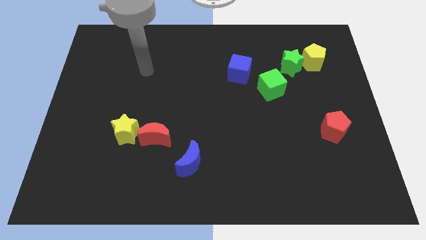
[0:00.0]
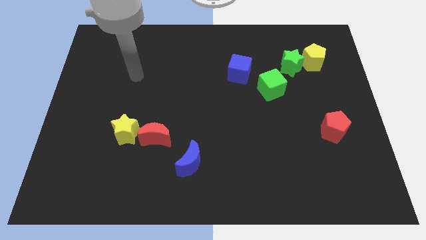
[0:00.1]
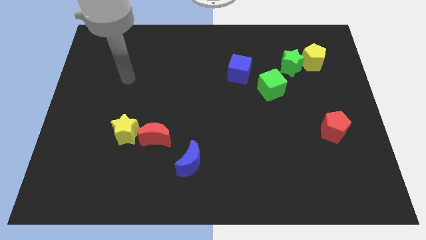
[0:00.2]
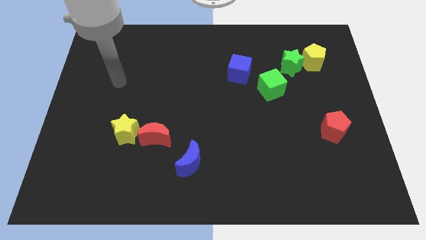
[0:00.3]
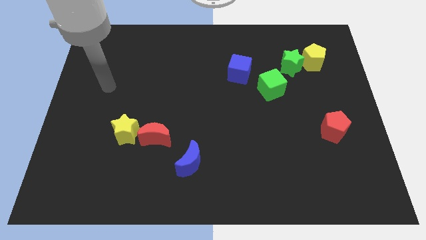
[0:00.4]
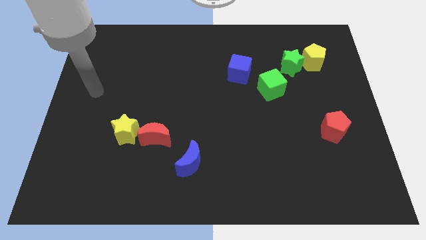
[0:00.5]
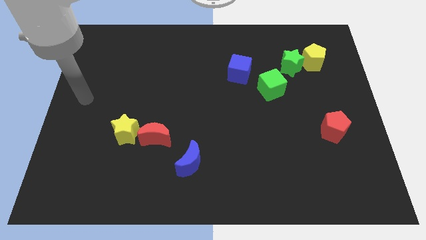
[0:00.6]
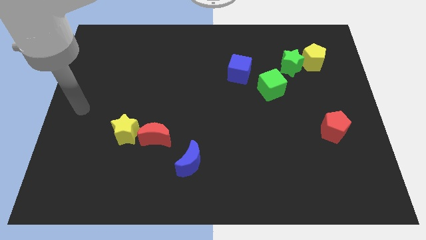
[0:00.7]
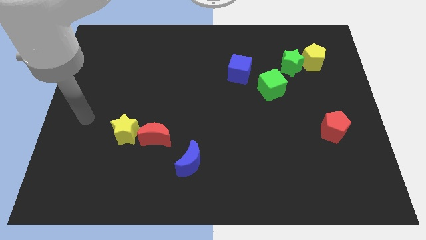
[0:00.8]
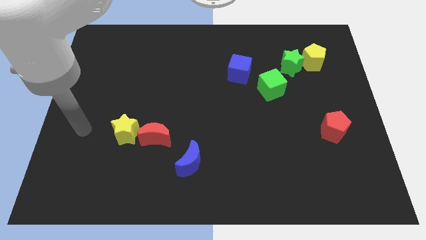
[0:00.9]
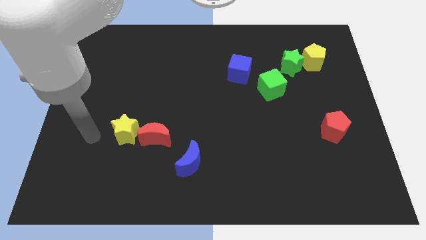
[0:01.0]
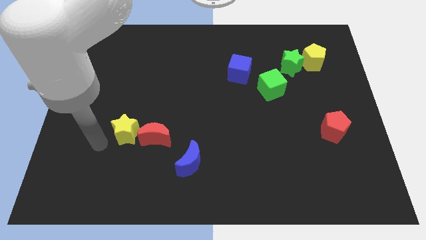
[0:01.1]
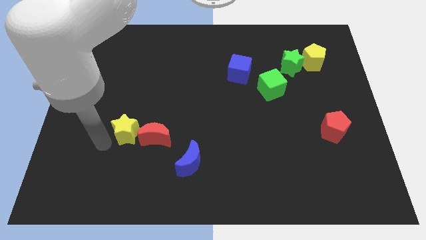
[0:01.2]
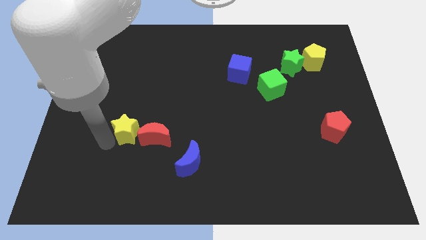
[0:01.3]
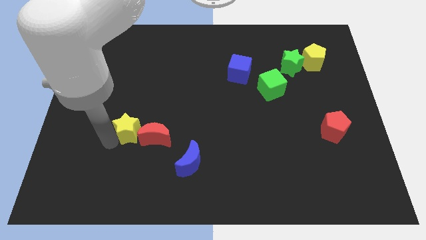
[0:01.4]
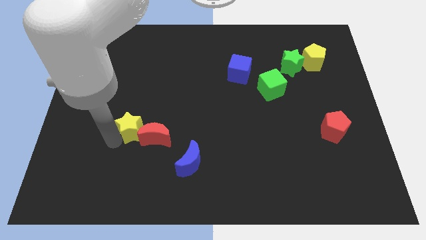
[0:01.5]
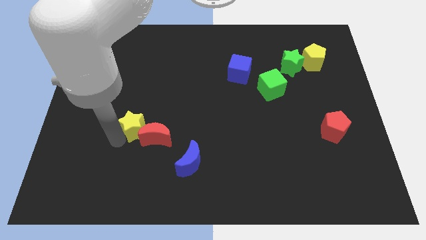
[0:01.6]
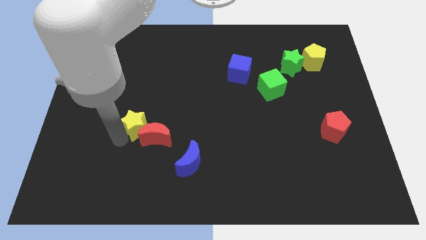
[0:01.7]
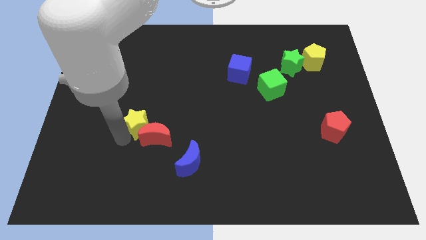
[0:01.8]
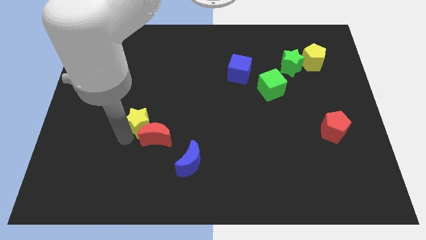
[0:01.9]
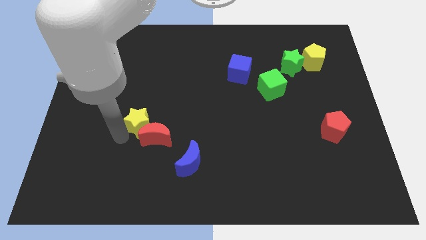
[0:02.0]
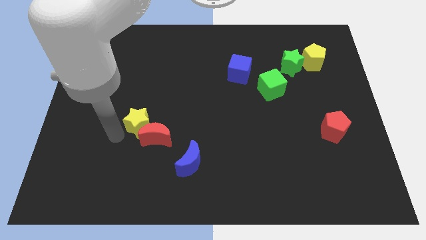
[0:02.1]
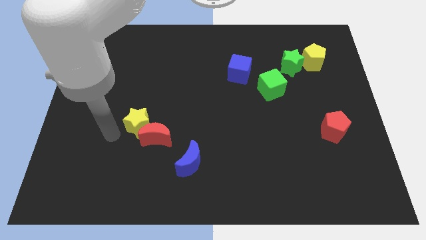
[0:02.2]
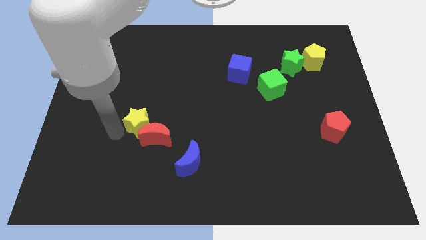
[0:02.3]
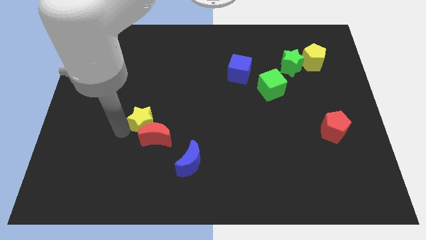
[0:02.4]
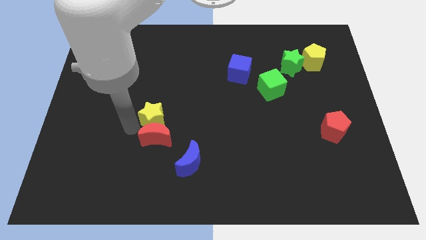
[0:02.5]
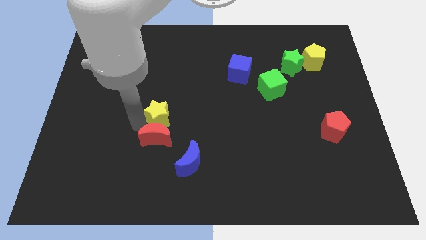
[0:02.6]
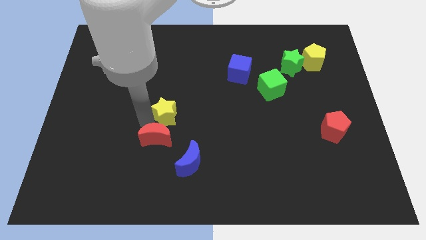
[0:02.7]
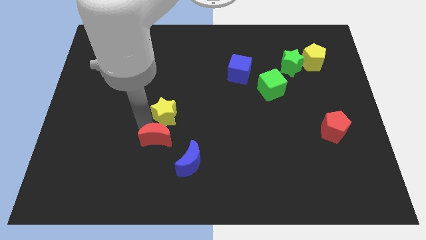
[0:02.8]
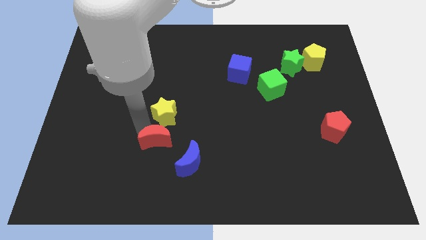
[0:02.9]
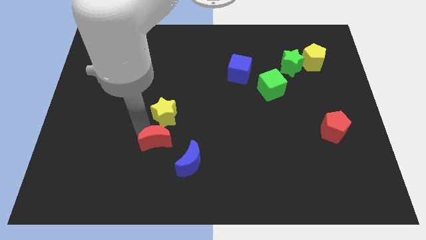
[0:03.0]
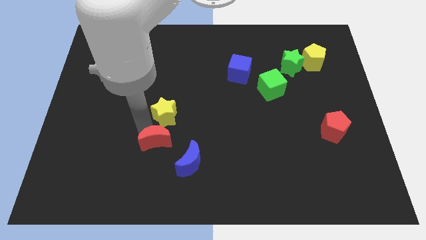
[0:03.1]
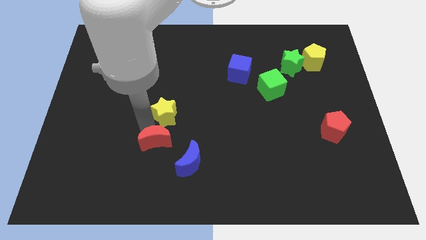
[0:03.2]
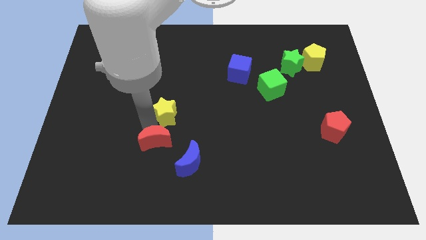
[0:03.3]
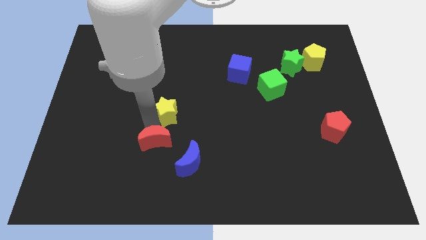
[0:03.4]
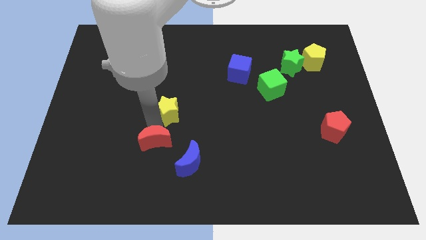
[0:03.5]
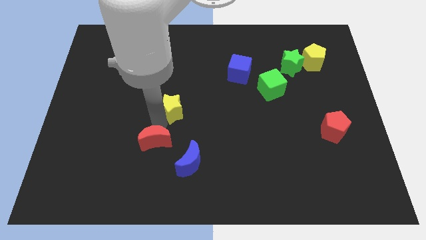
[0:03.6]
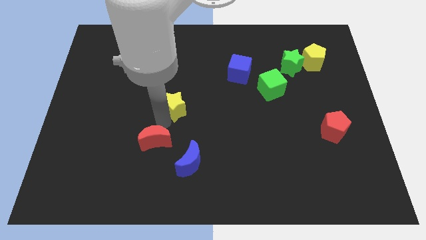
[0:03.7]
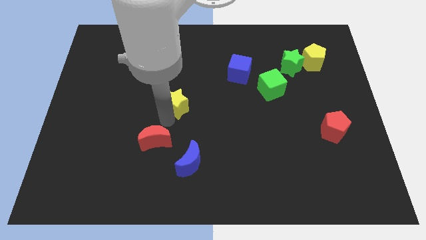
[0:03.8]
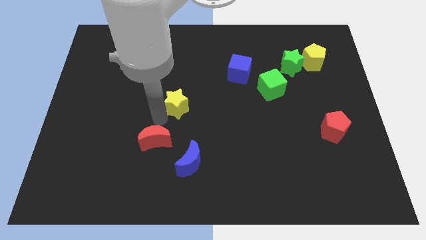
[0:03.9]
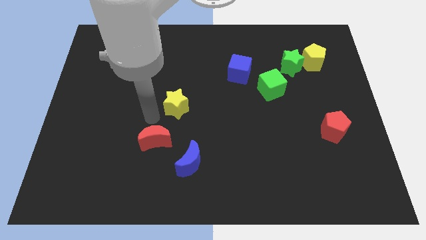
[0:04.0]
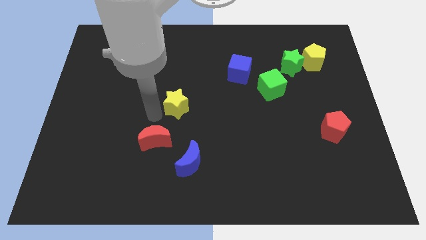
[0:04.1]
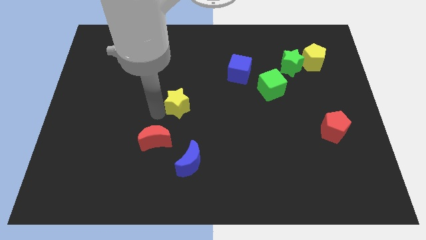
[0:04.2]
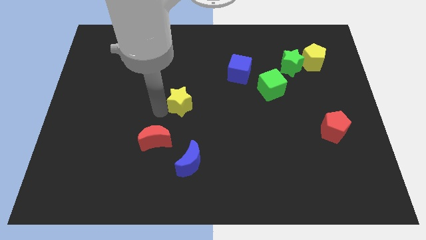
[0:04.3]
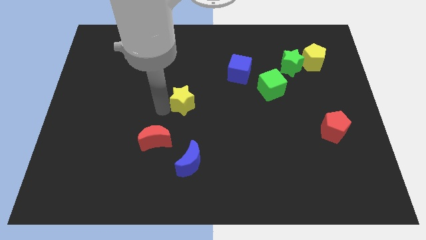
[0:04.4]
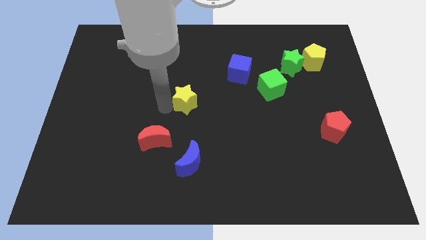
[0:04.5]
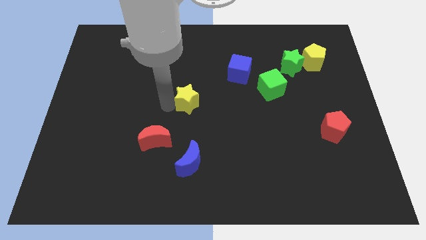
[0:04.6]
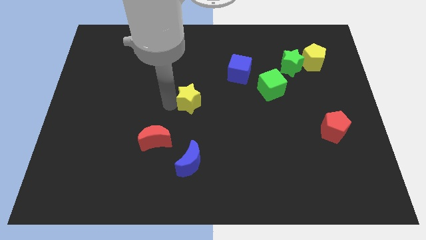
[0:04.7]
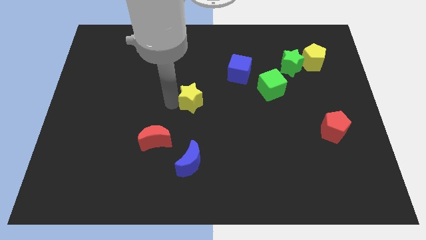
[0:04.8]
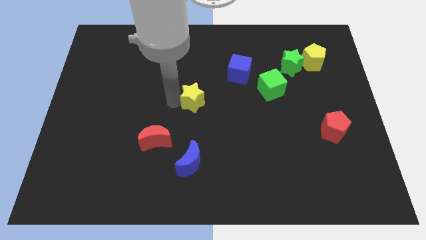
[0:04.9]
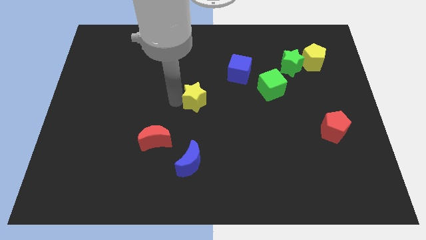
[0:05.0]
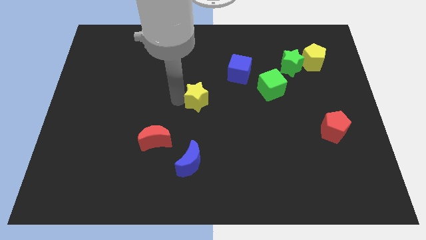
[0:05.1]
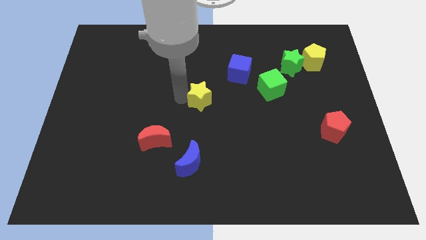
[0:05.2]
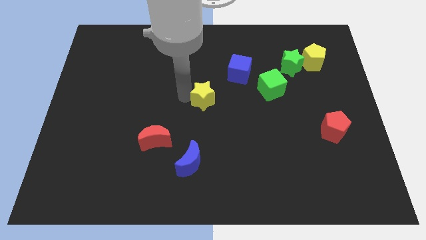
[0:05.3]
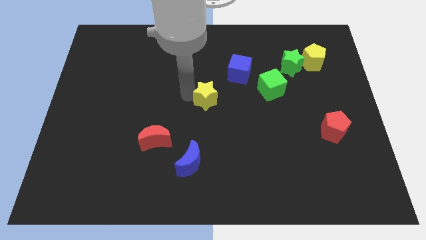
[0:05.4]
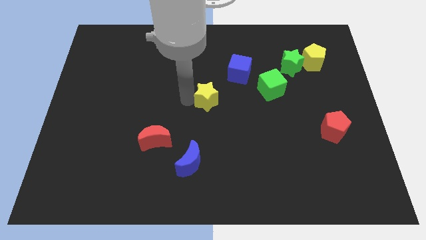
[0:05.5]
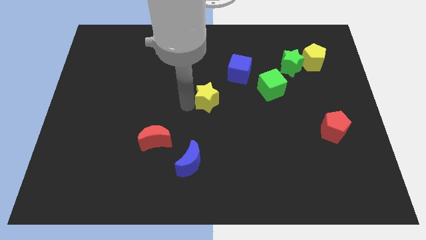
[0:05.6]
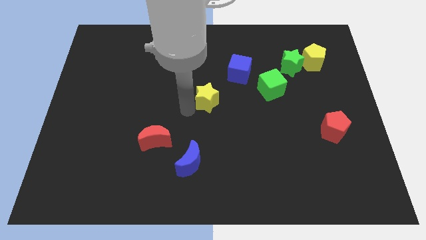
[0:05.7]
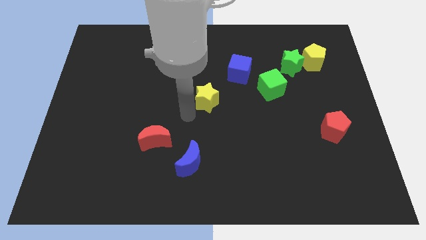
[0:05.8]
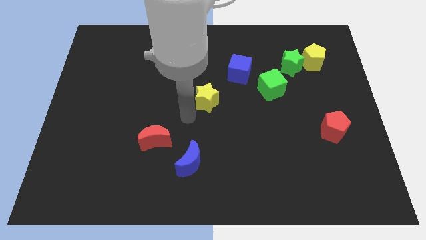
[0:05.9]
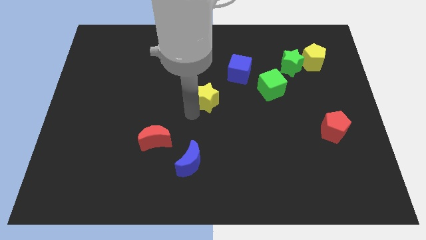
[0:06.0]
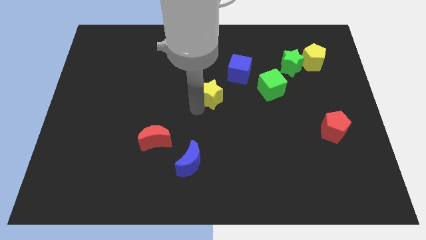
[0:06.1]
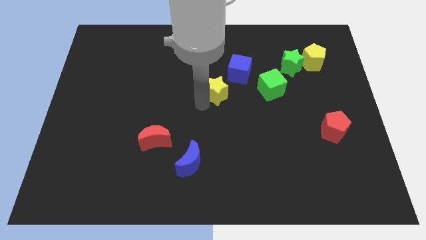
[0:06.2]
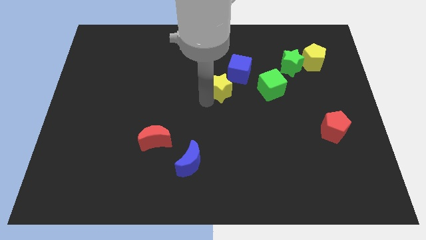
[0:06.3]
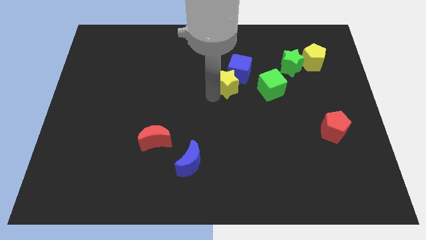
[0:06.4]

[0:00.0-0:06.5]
slide the yellow star to the blue cube
